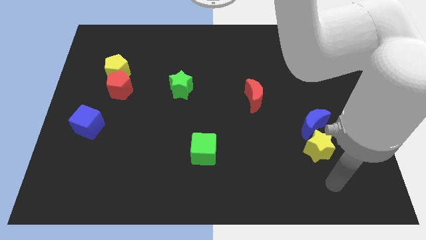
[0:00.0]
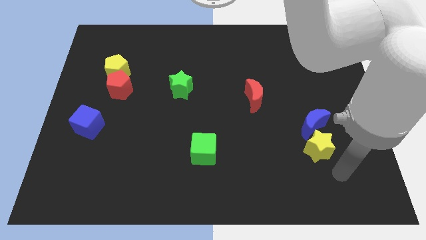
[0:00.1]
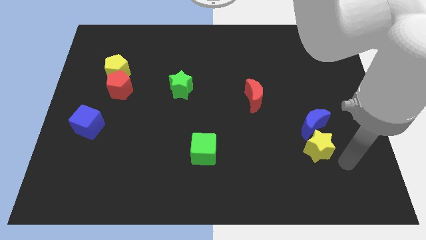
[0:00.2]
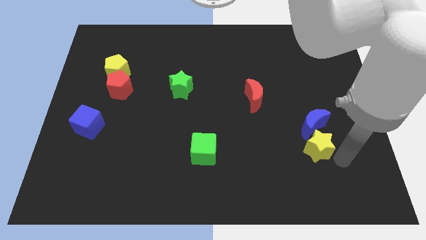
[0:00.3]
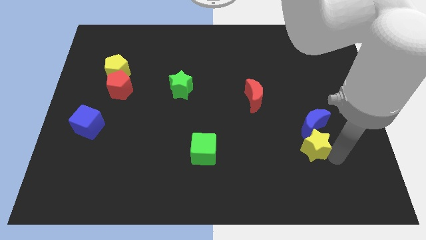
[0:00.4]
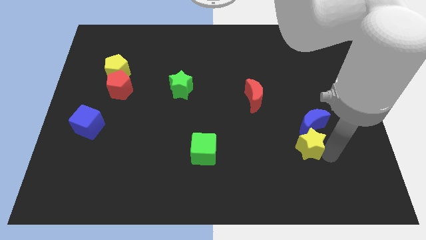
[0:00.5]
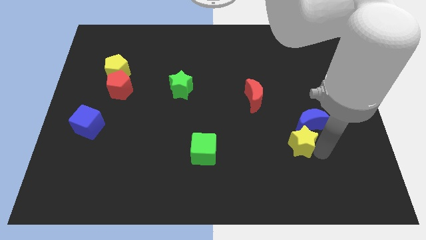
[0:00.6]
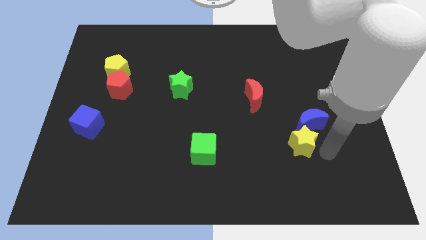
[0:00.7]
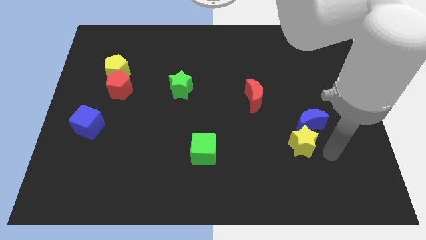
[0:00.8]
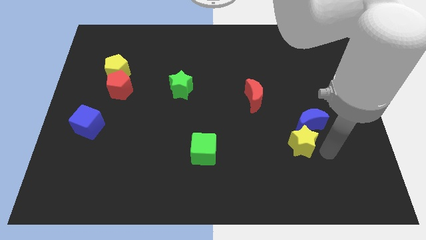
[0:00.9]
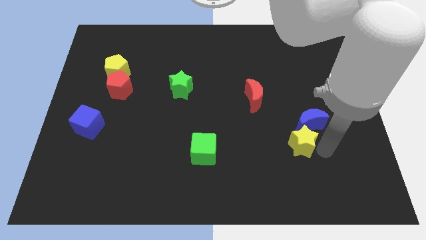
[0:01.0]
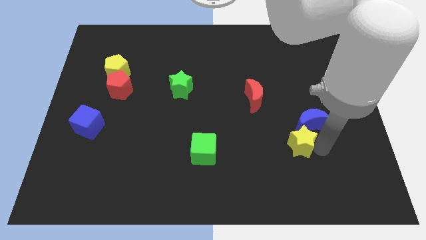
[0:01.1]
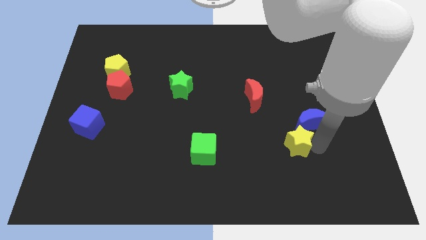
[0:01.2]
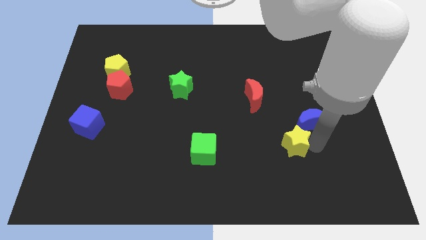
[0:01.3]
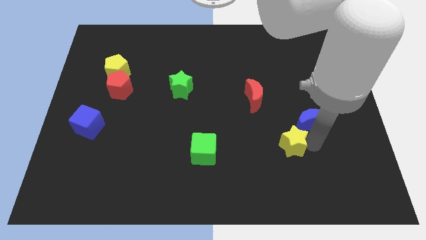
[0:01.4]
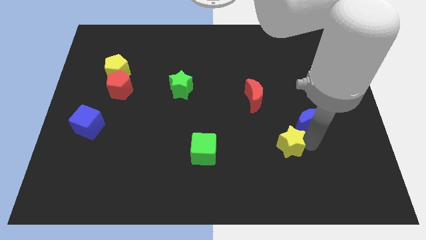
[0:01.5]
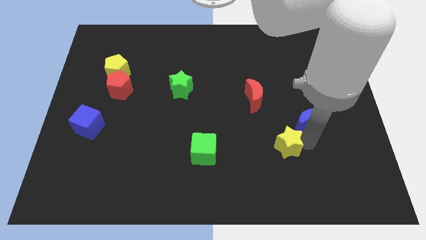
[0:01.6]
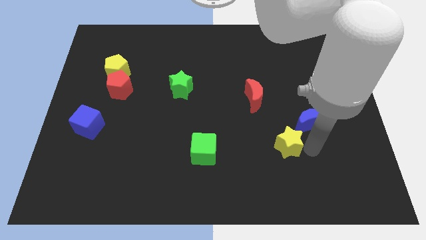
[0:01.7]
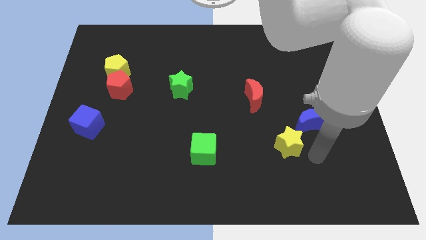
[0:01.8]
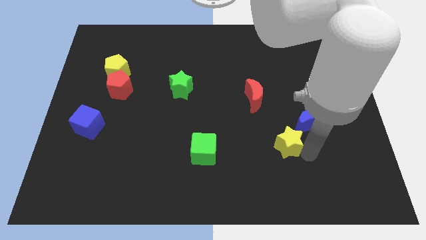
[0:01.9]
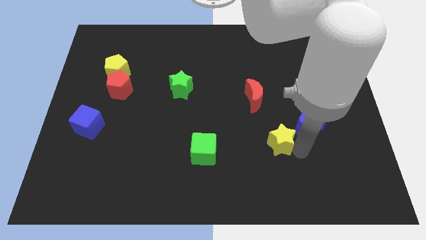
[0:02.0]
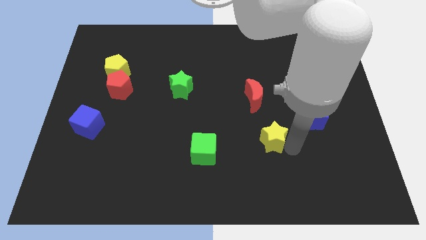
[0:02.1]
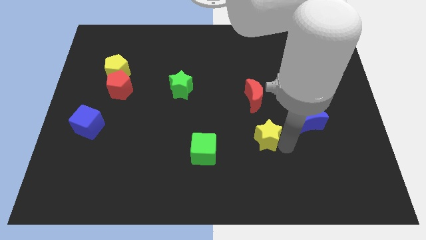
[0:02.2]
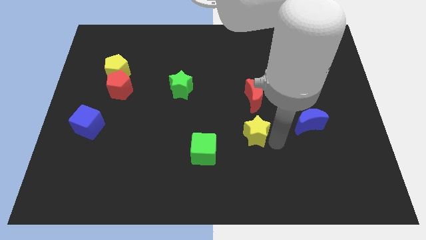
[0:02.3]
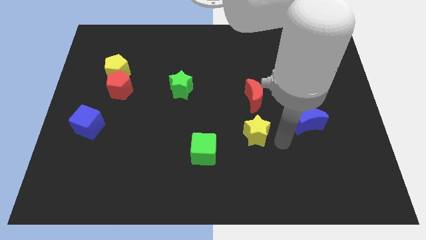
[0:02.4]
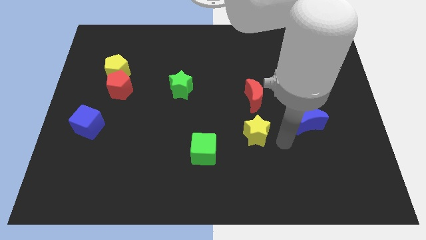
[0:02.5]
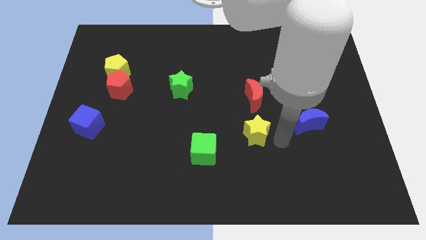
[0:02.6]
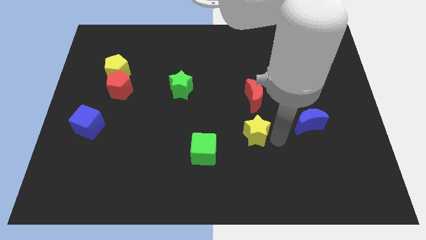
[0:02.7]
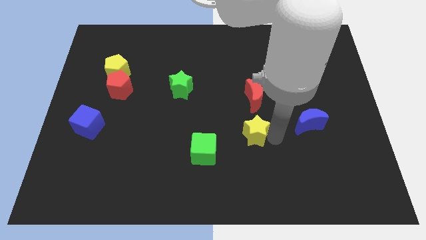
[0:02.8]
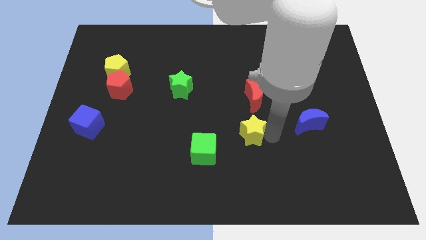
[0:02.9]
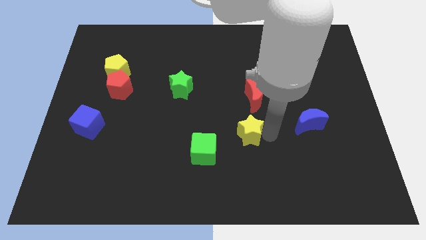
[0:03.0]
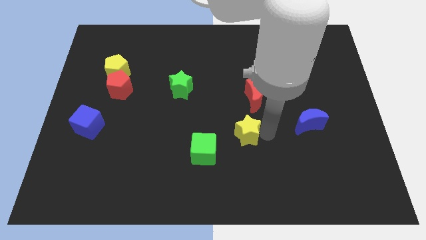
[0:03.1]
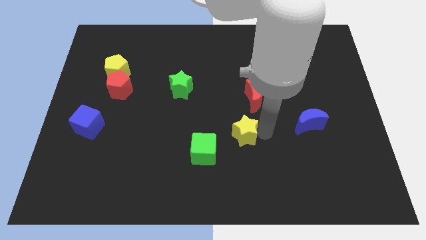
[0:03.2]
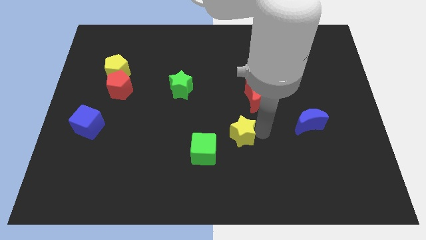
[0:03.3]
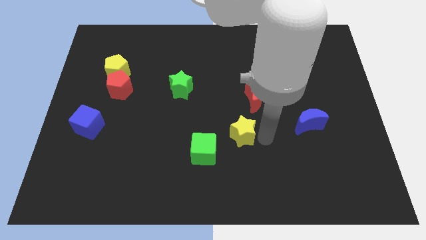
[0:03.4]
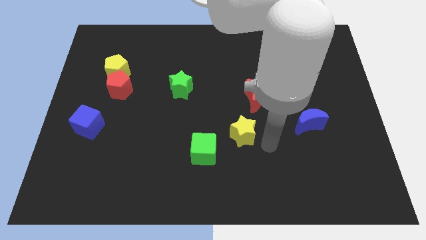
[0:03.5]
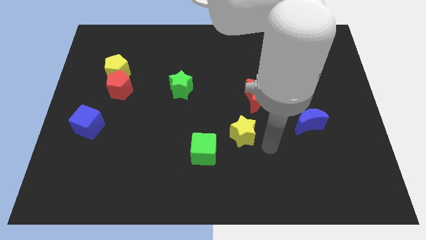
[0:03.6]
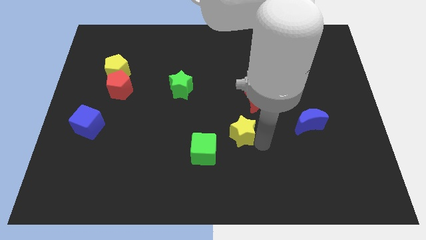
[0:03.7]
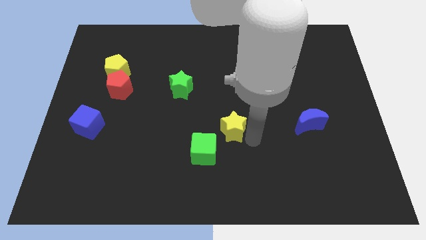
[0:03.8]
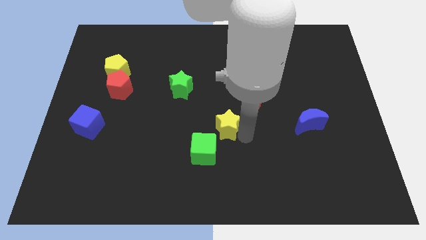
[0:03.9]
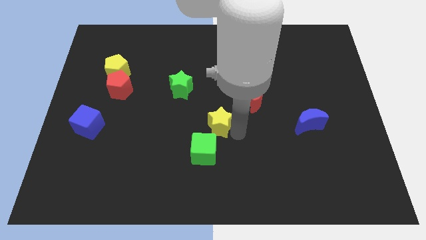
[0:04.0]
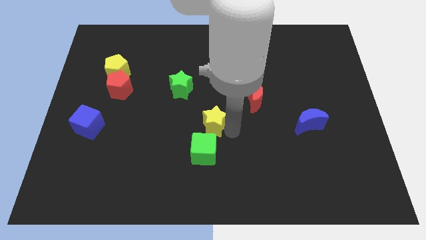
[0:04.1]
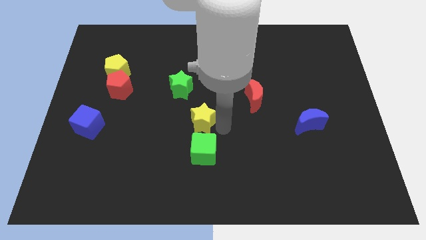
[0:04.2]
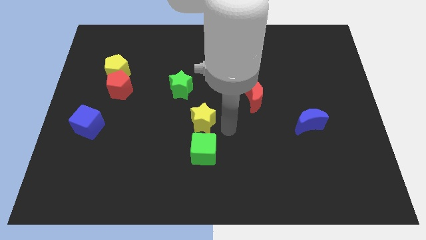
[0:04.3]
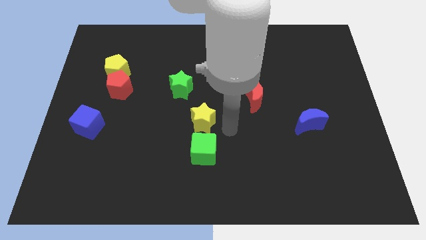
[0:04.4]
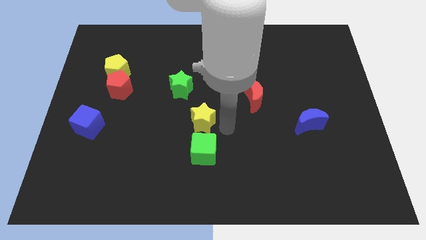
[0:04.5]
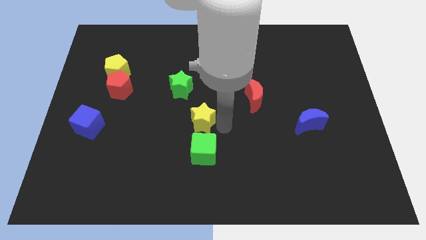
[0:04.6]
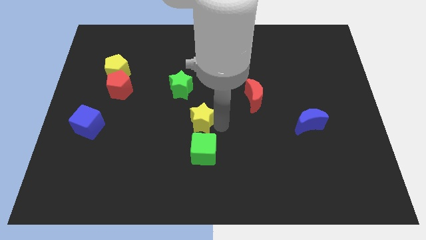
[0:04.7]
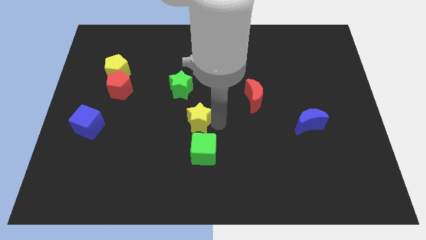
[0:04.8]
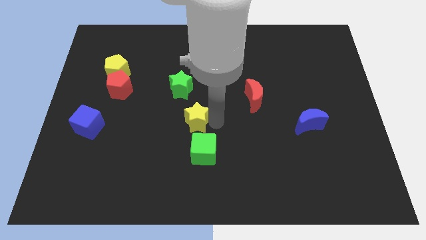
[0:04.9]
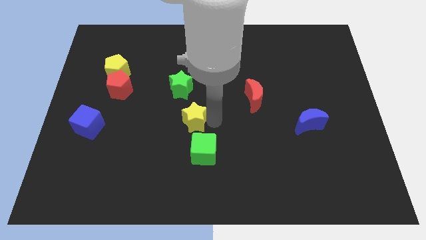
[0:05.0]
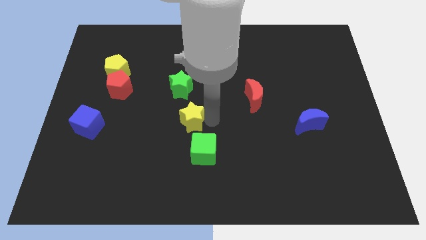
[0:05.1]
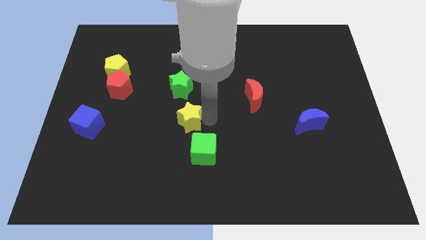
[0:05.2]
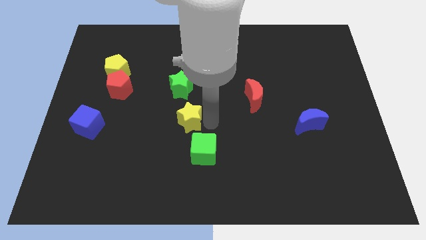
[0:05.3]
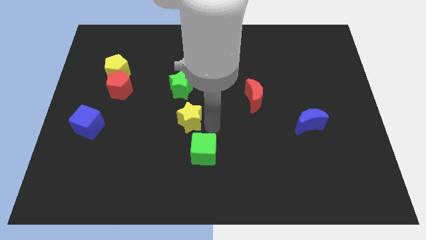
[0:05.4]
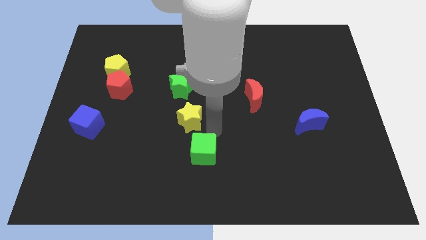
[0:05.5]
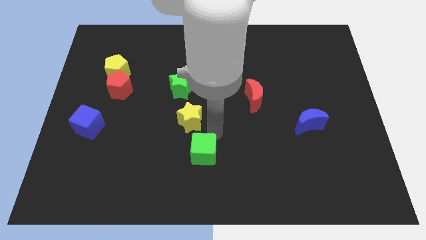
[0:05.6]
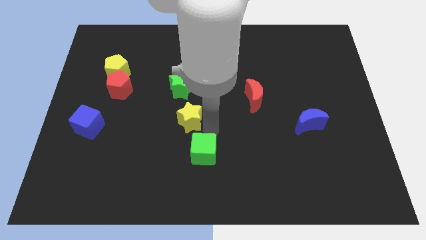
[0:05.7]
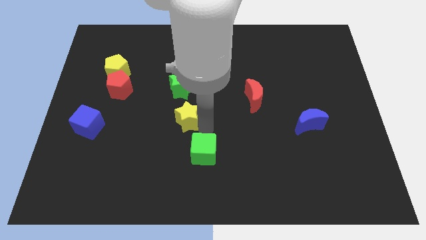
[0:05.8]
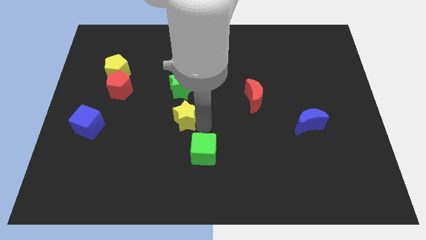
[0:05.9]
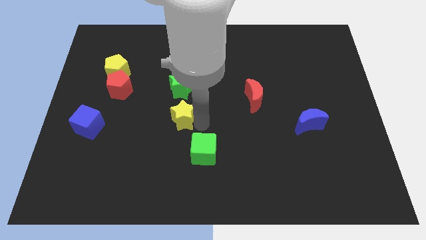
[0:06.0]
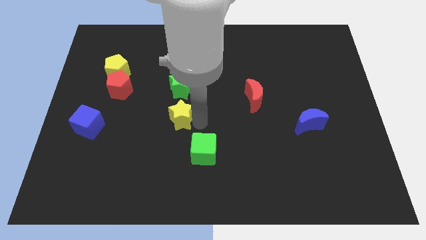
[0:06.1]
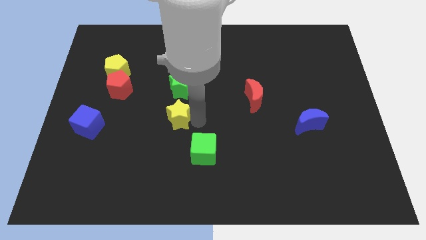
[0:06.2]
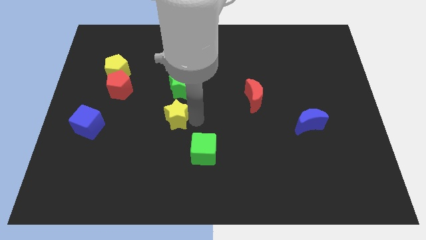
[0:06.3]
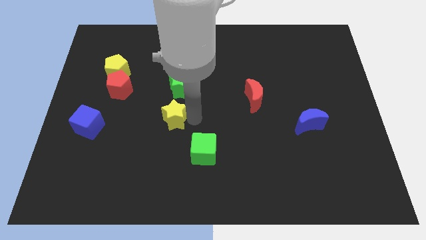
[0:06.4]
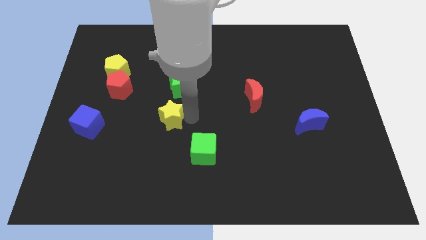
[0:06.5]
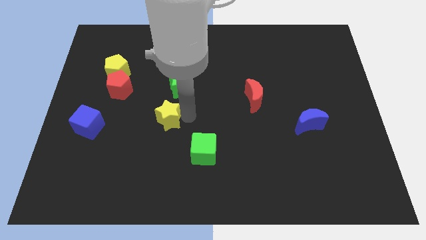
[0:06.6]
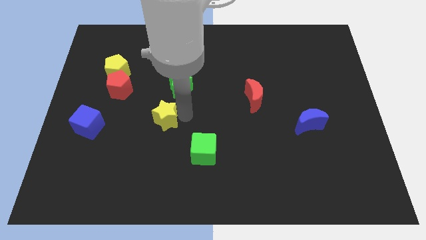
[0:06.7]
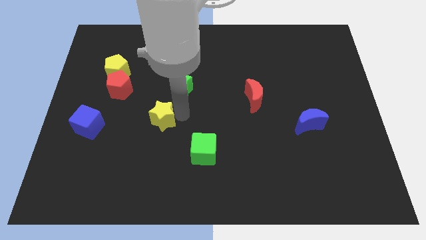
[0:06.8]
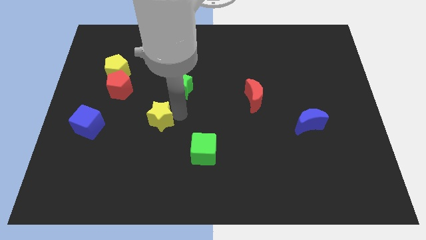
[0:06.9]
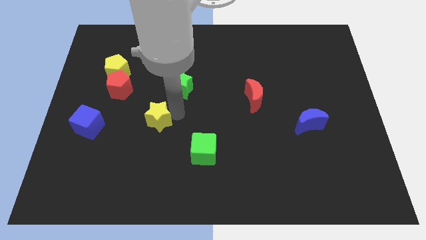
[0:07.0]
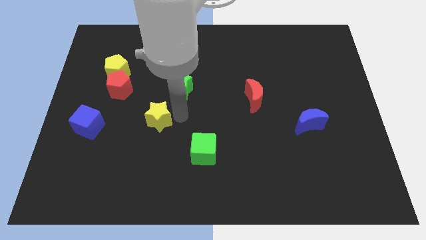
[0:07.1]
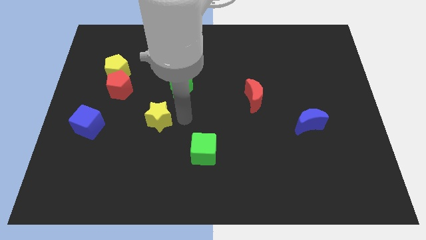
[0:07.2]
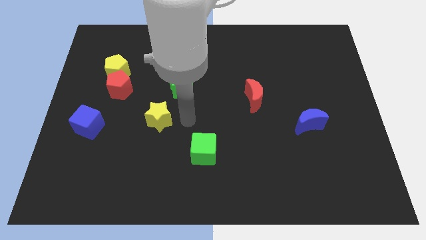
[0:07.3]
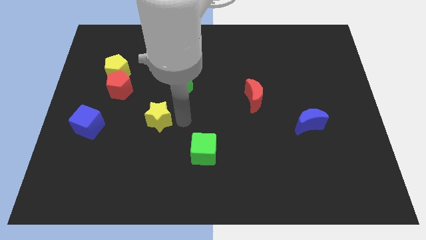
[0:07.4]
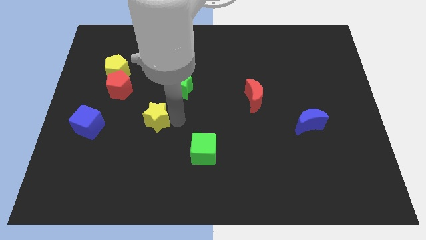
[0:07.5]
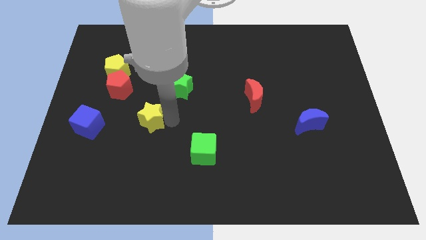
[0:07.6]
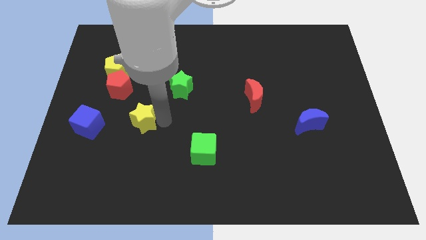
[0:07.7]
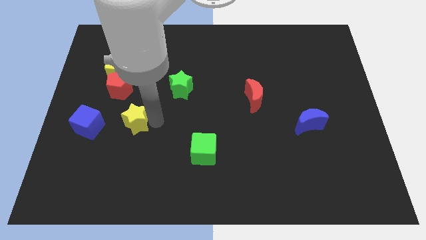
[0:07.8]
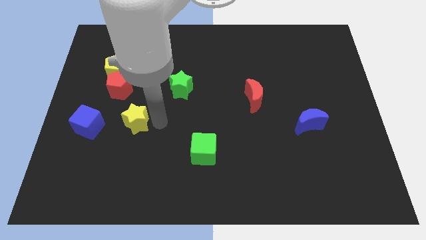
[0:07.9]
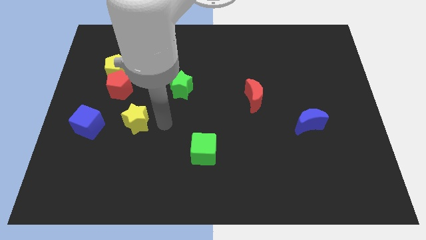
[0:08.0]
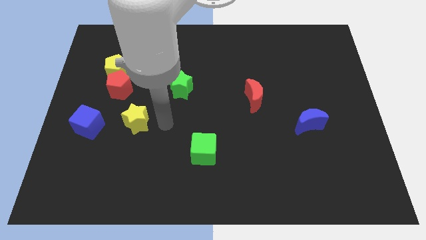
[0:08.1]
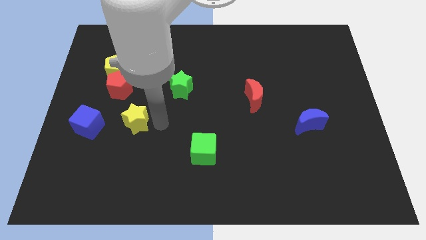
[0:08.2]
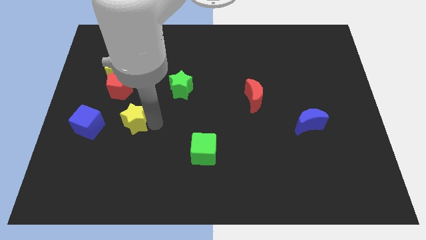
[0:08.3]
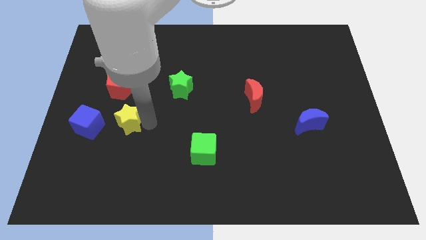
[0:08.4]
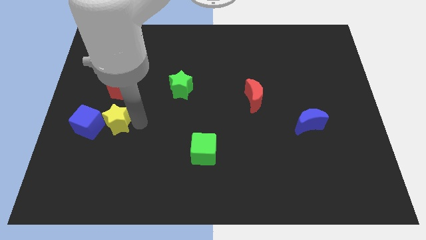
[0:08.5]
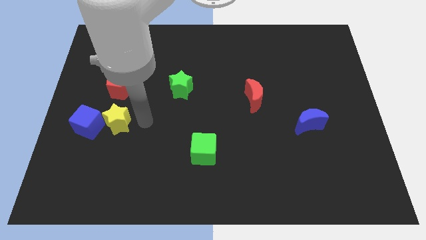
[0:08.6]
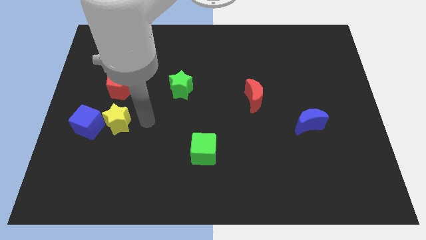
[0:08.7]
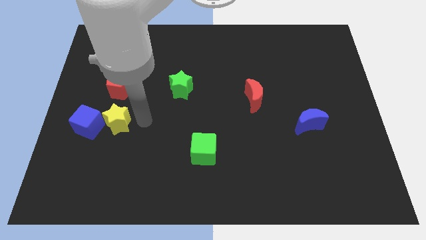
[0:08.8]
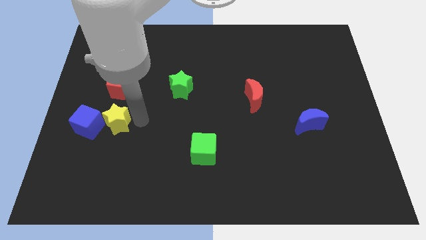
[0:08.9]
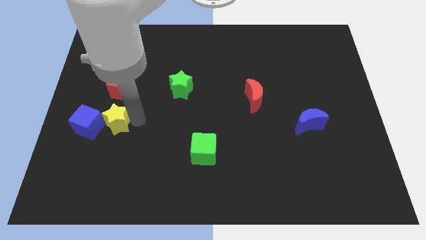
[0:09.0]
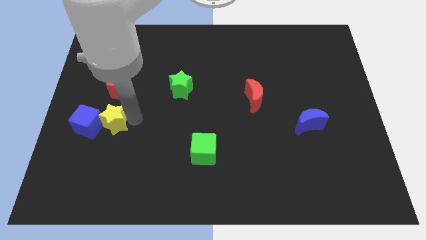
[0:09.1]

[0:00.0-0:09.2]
put the yellow star close to the blue cube
